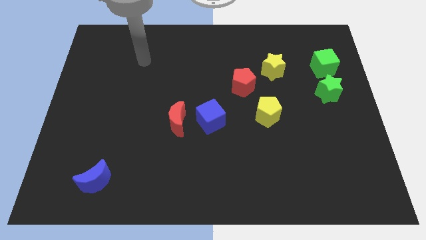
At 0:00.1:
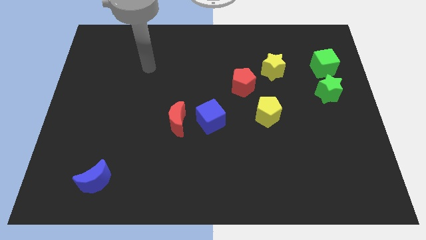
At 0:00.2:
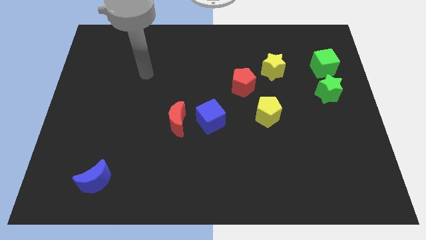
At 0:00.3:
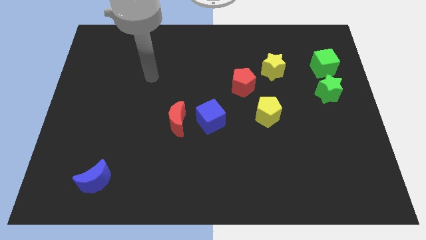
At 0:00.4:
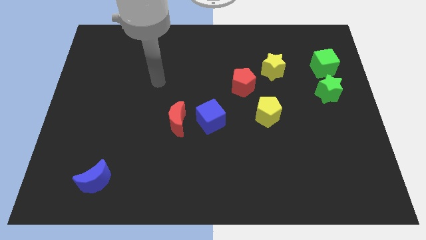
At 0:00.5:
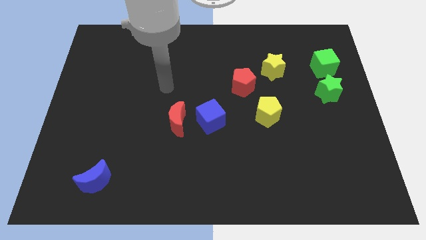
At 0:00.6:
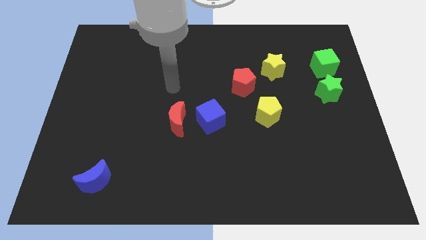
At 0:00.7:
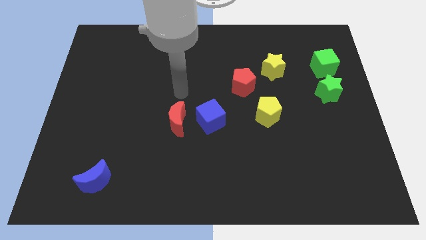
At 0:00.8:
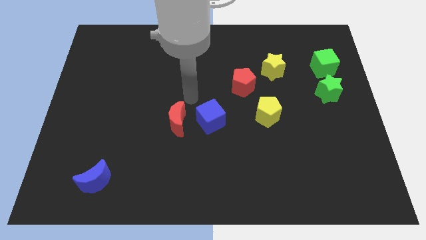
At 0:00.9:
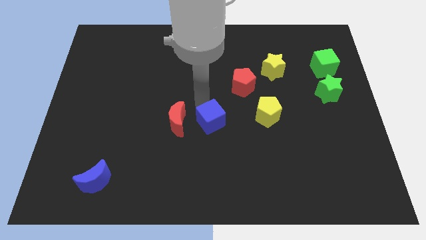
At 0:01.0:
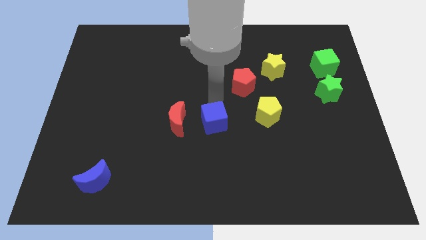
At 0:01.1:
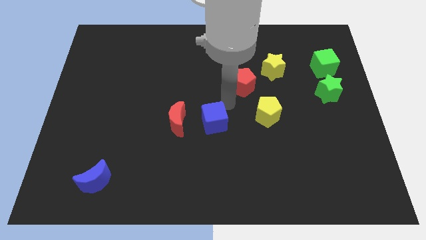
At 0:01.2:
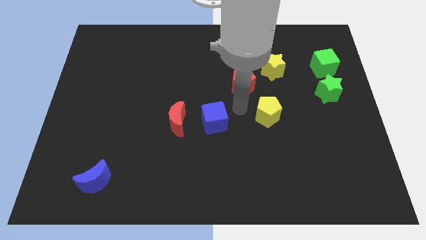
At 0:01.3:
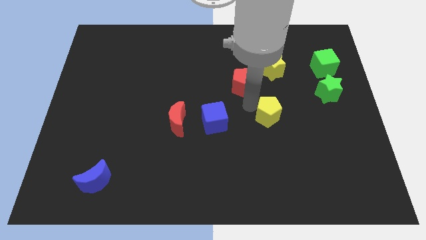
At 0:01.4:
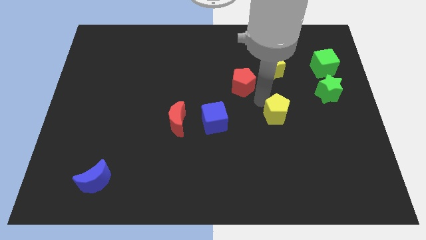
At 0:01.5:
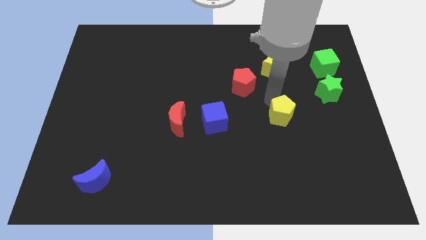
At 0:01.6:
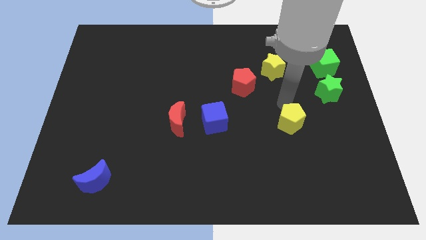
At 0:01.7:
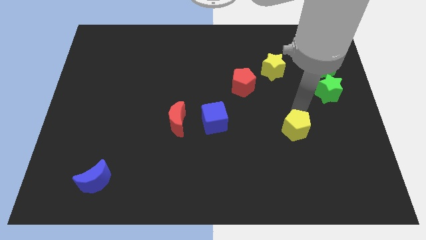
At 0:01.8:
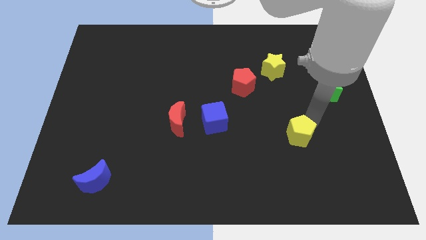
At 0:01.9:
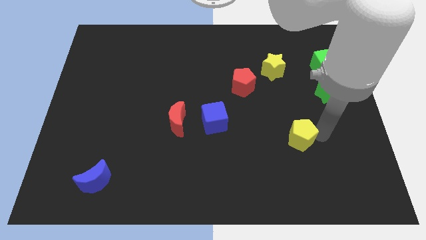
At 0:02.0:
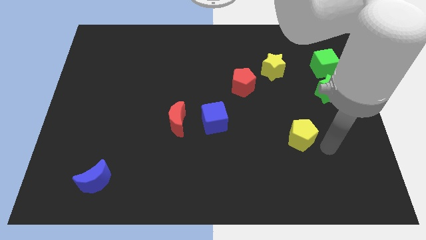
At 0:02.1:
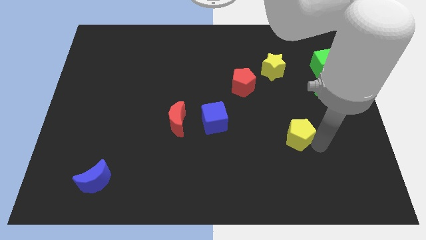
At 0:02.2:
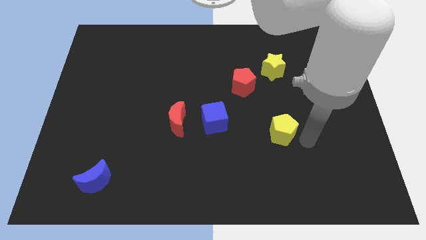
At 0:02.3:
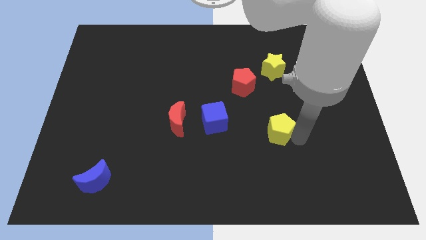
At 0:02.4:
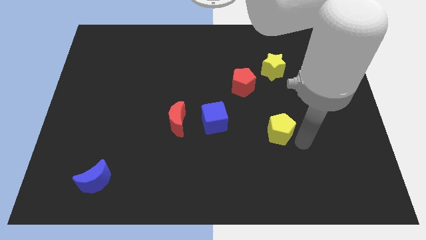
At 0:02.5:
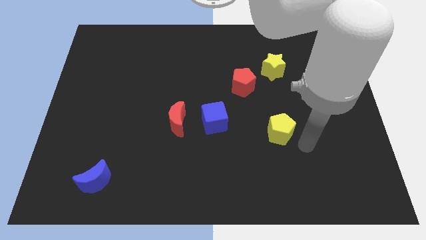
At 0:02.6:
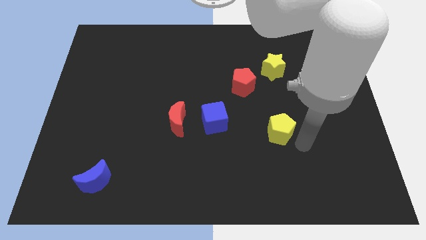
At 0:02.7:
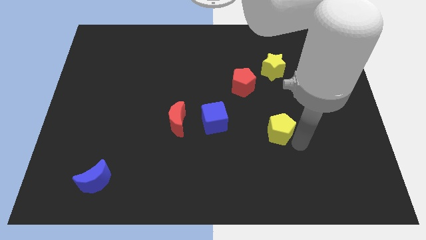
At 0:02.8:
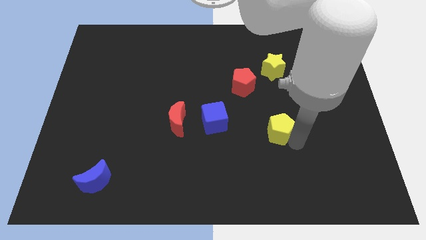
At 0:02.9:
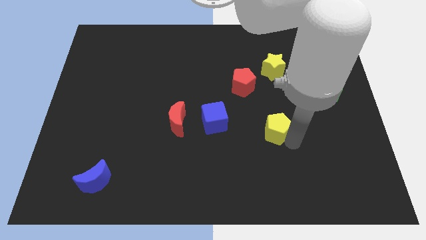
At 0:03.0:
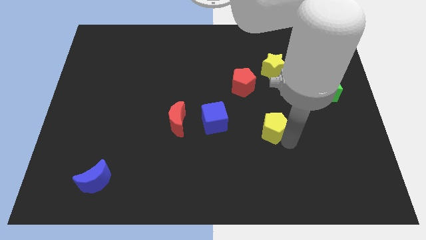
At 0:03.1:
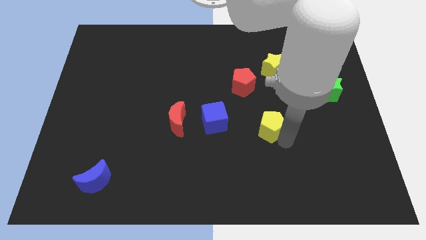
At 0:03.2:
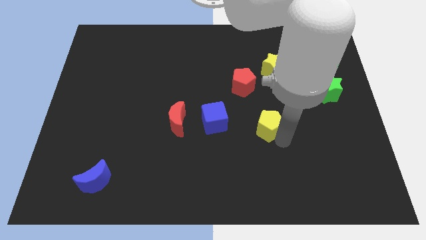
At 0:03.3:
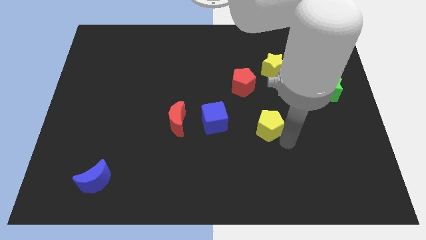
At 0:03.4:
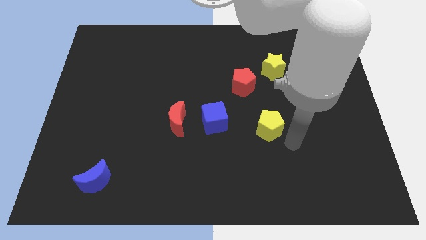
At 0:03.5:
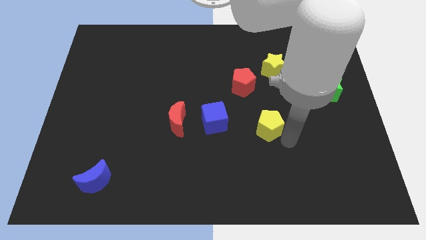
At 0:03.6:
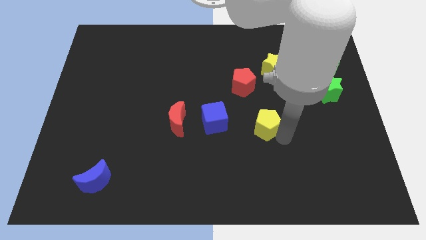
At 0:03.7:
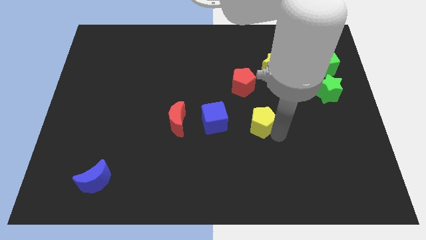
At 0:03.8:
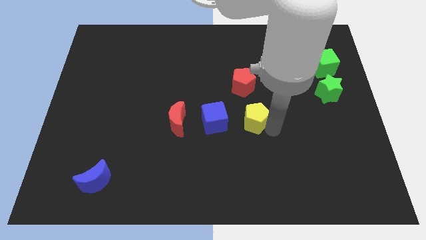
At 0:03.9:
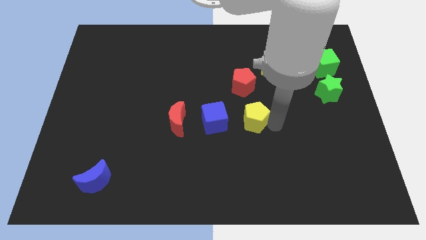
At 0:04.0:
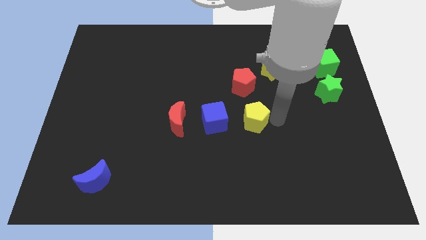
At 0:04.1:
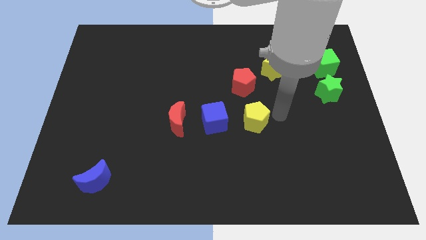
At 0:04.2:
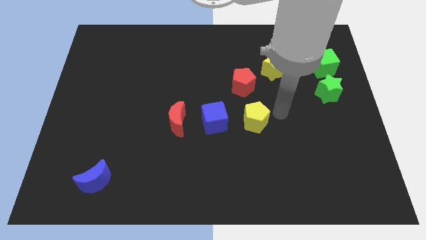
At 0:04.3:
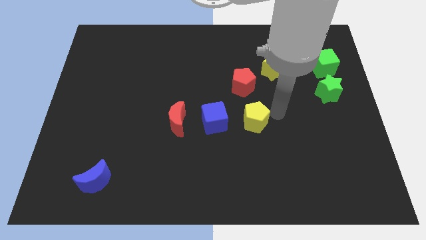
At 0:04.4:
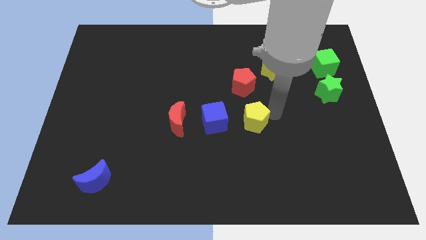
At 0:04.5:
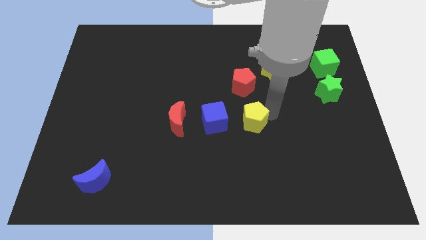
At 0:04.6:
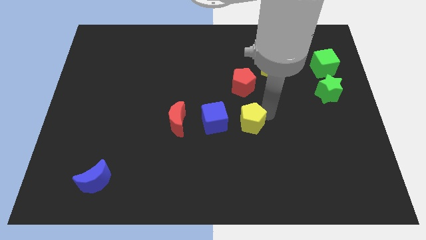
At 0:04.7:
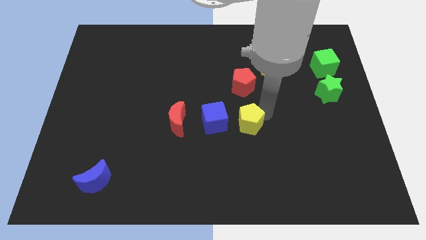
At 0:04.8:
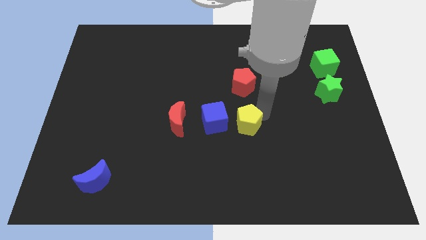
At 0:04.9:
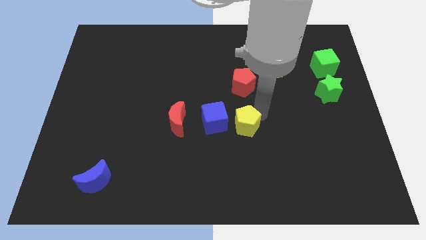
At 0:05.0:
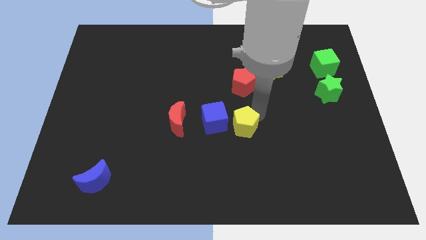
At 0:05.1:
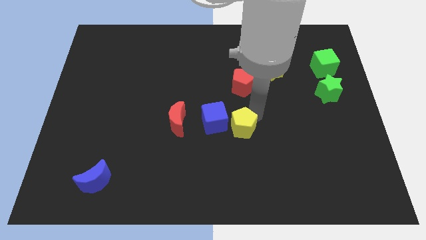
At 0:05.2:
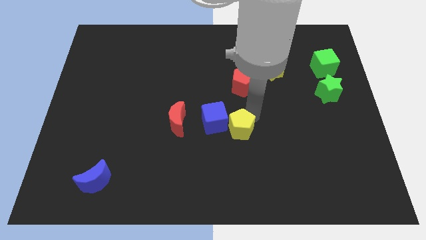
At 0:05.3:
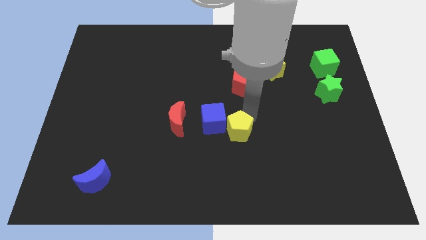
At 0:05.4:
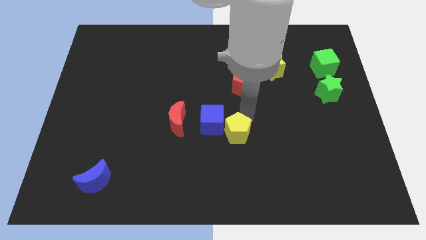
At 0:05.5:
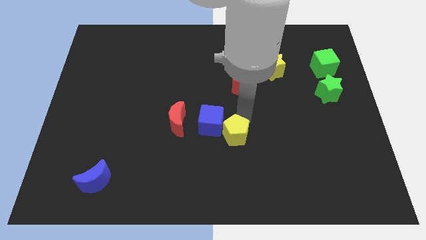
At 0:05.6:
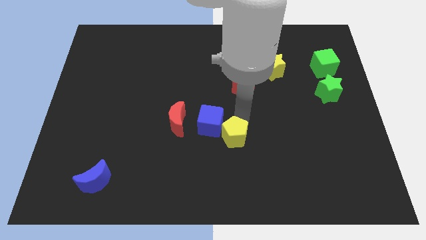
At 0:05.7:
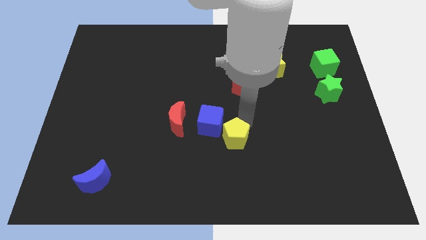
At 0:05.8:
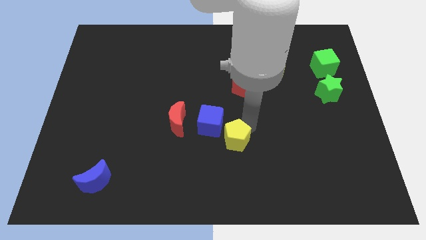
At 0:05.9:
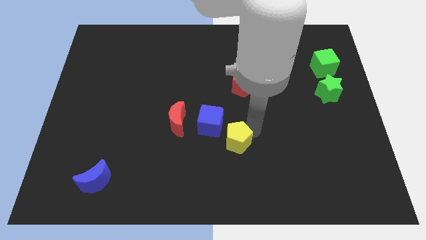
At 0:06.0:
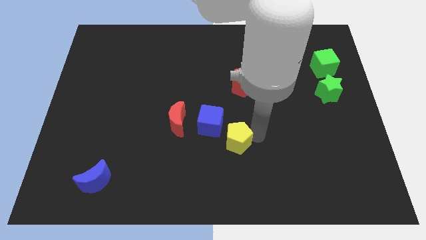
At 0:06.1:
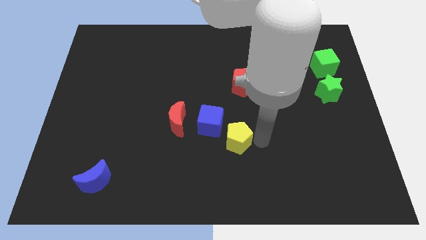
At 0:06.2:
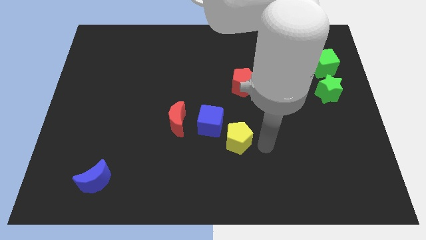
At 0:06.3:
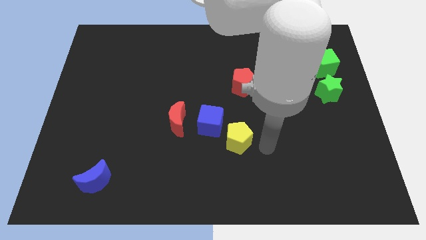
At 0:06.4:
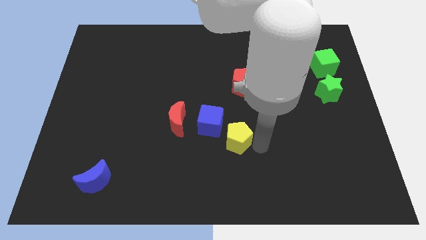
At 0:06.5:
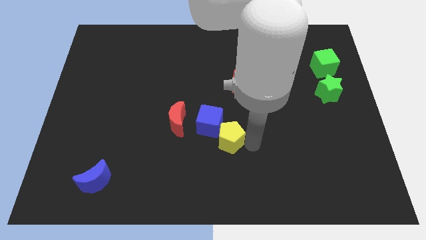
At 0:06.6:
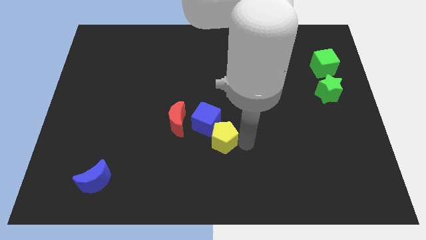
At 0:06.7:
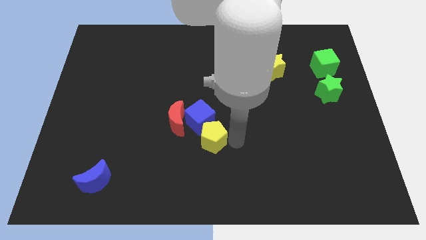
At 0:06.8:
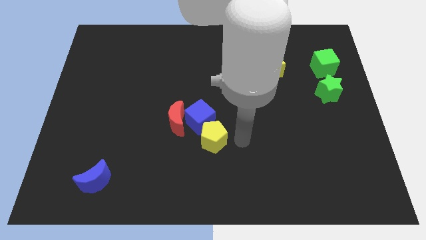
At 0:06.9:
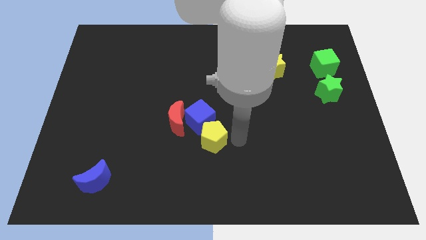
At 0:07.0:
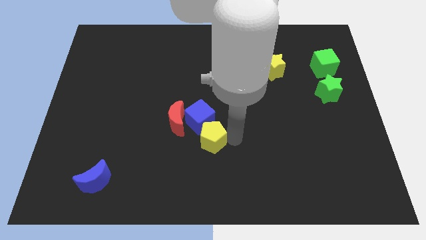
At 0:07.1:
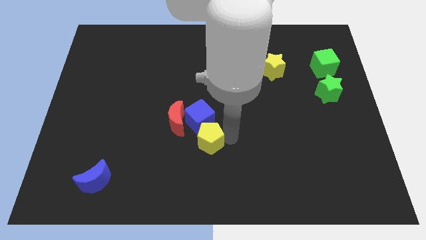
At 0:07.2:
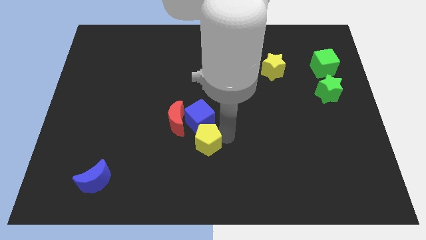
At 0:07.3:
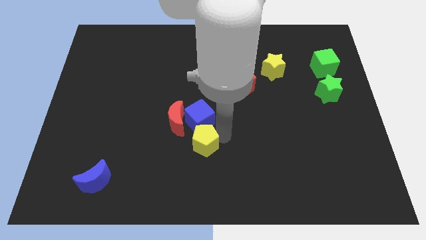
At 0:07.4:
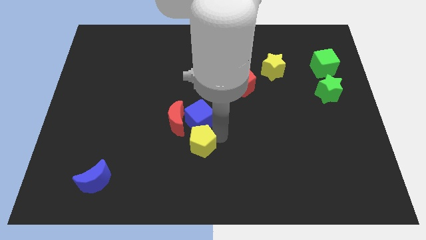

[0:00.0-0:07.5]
slide the yellow pentagon to the bottom left of the blue cube
